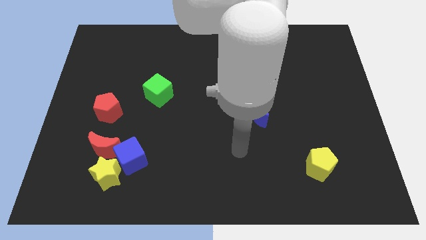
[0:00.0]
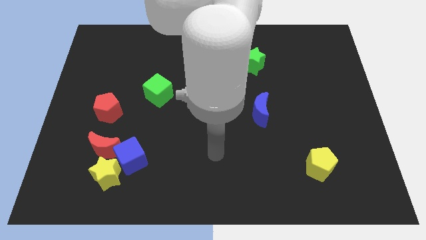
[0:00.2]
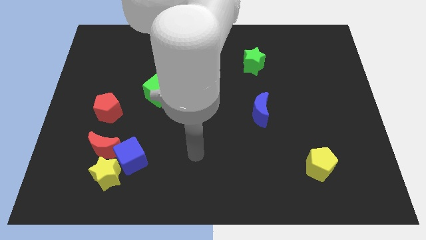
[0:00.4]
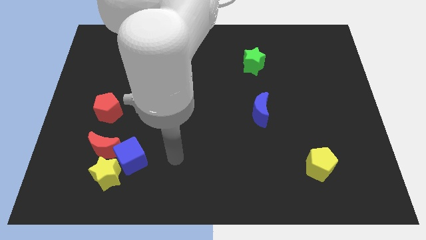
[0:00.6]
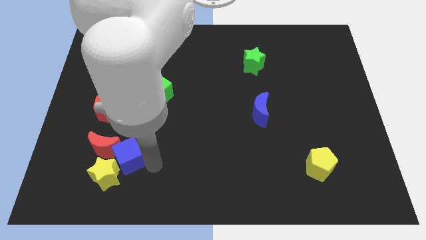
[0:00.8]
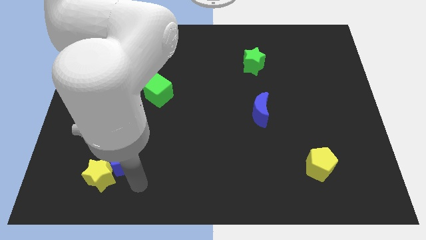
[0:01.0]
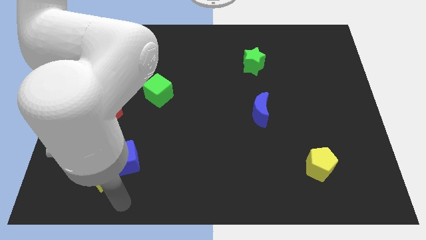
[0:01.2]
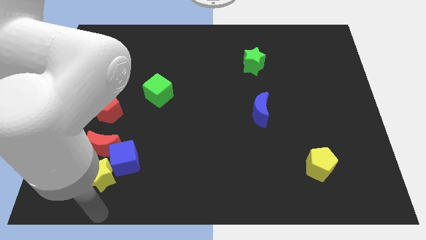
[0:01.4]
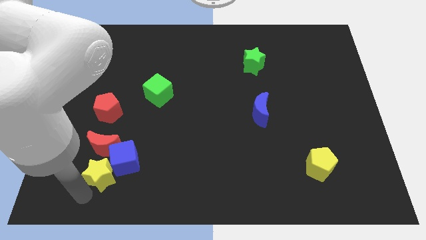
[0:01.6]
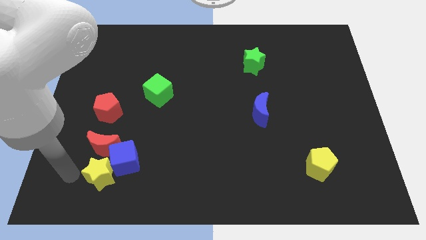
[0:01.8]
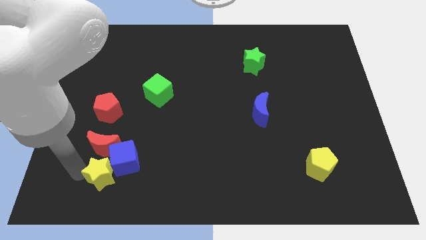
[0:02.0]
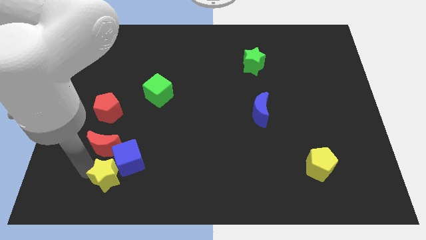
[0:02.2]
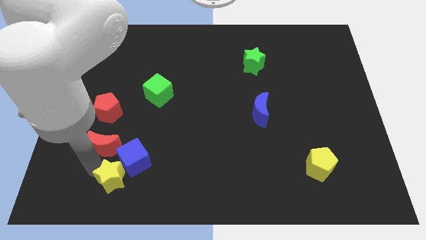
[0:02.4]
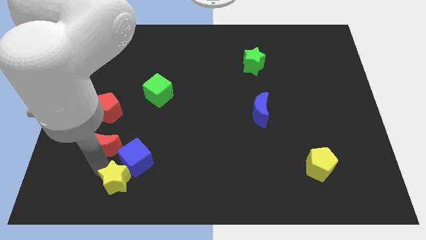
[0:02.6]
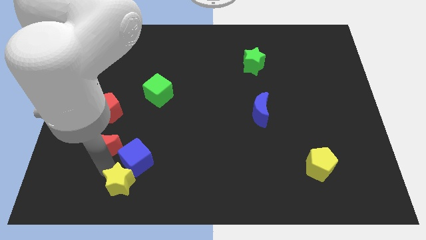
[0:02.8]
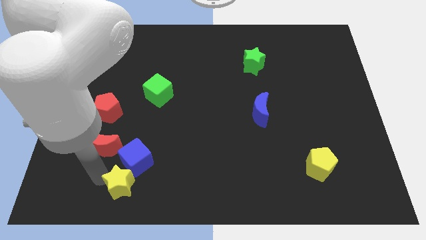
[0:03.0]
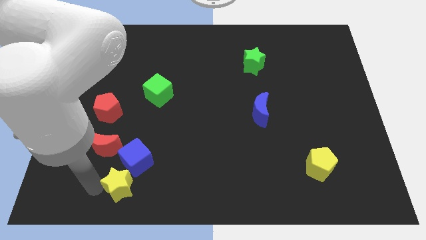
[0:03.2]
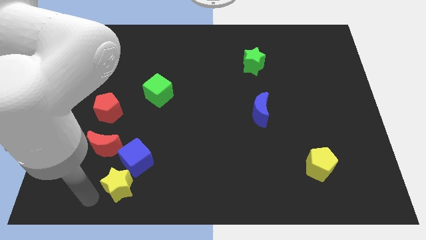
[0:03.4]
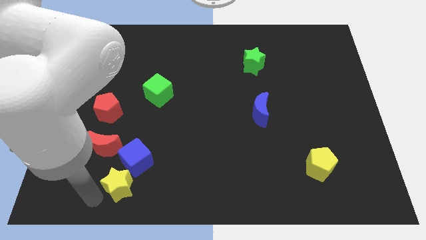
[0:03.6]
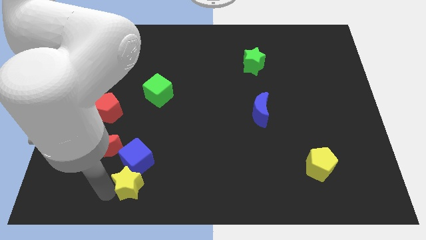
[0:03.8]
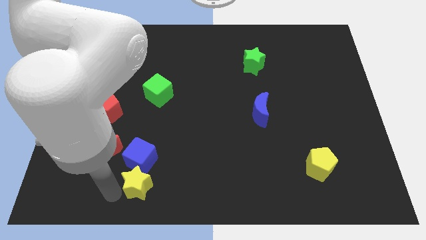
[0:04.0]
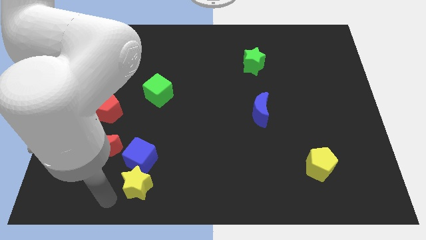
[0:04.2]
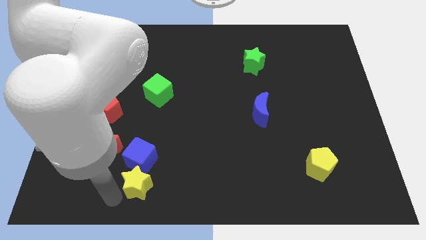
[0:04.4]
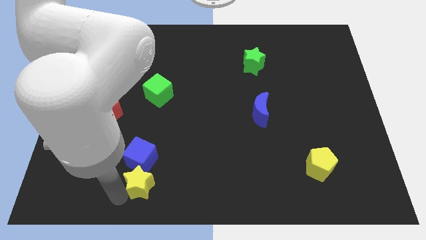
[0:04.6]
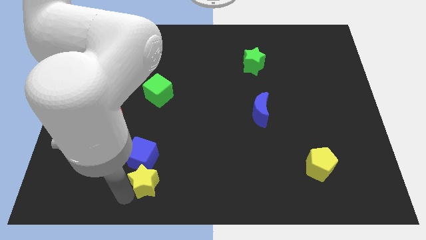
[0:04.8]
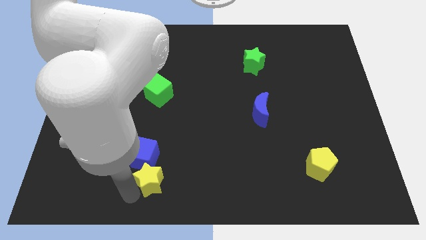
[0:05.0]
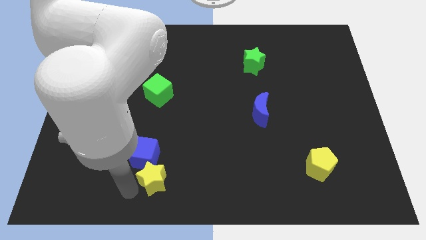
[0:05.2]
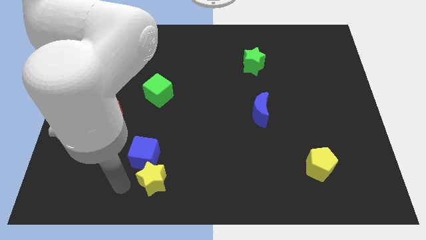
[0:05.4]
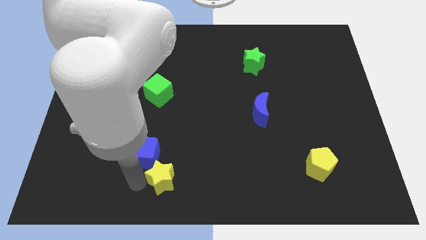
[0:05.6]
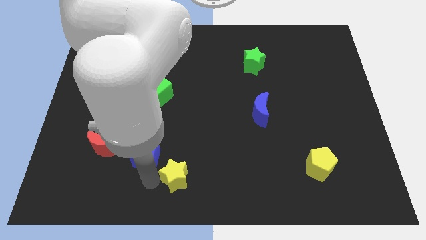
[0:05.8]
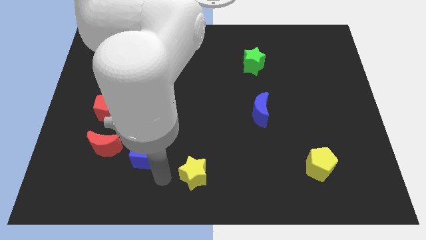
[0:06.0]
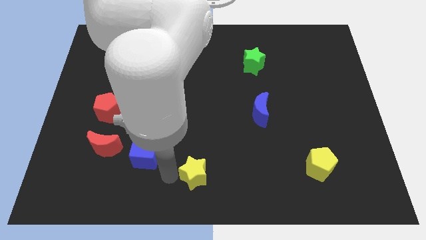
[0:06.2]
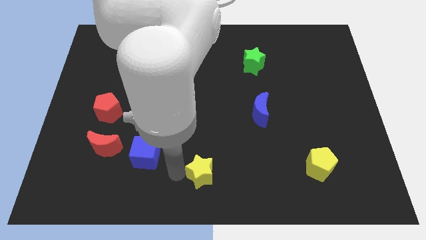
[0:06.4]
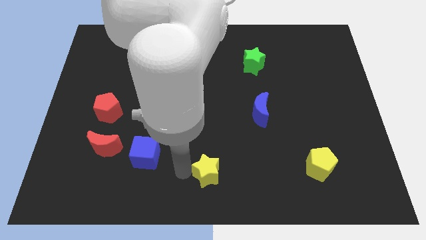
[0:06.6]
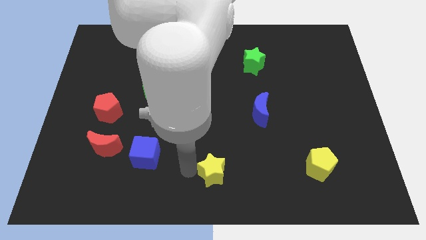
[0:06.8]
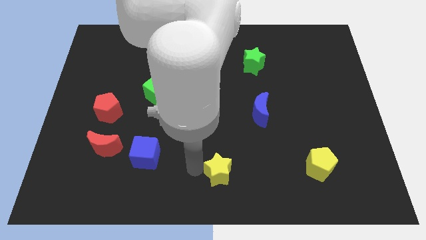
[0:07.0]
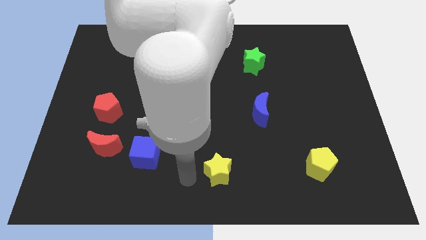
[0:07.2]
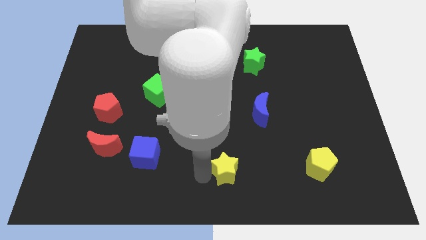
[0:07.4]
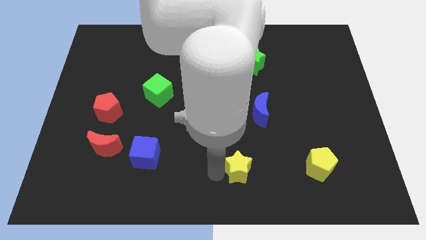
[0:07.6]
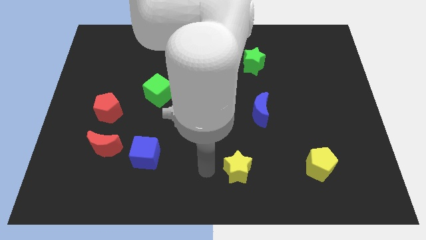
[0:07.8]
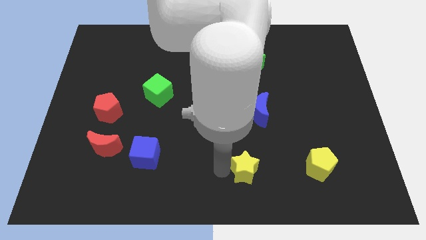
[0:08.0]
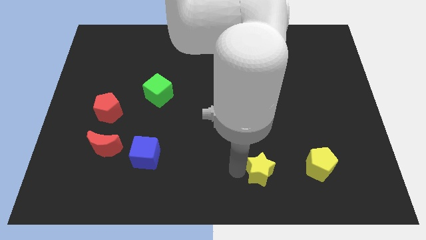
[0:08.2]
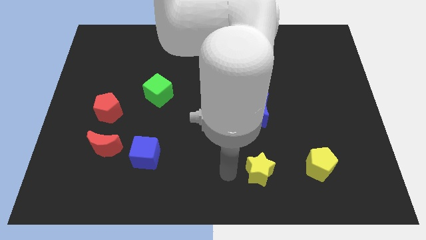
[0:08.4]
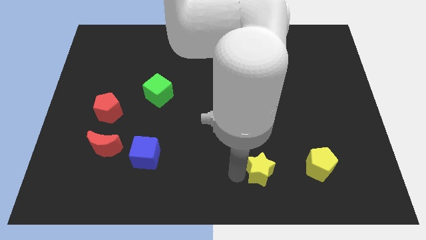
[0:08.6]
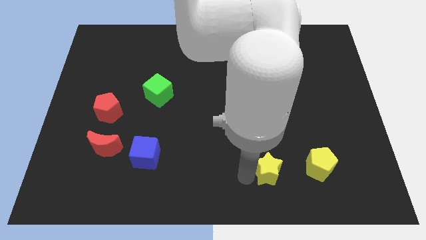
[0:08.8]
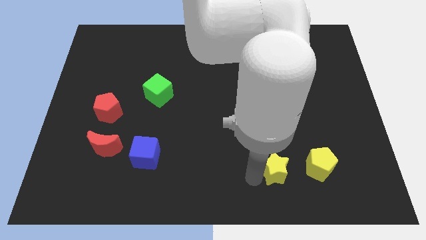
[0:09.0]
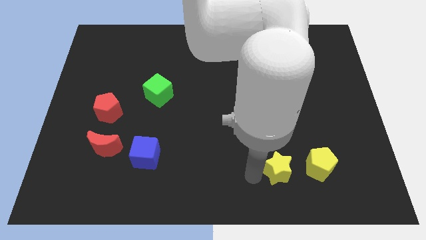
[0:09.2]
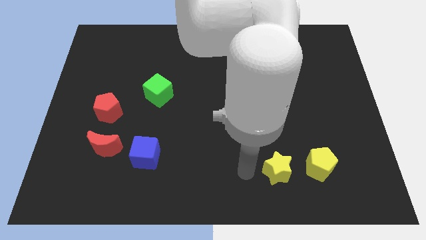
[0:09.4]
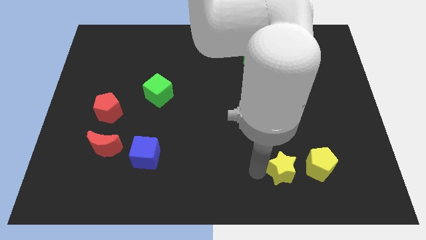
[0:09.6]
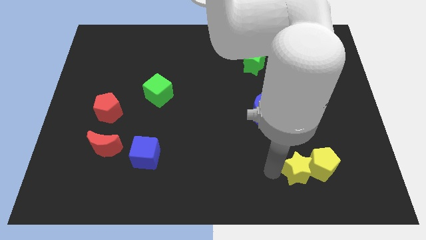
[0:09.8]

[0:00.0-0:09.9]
move the yellow star next to the yellow pentagon

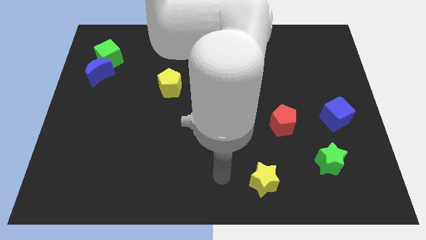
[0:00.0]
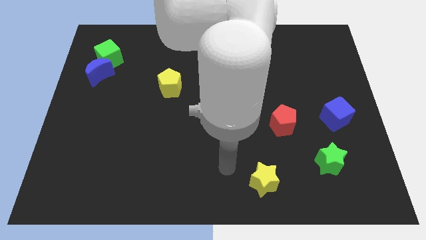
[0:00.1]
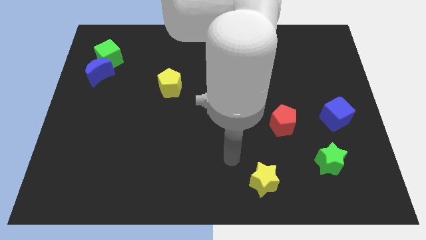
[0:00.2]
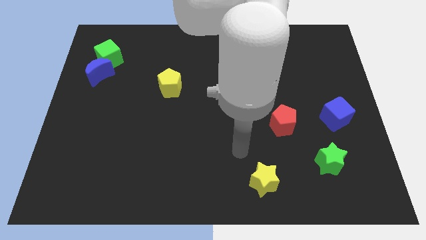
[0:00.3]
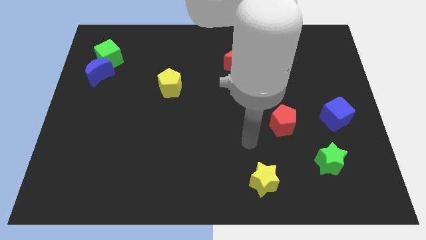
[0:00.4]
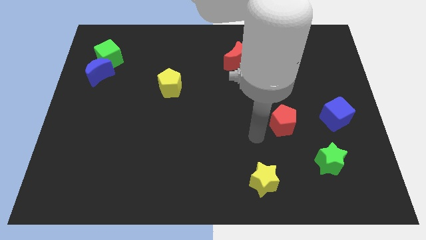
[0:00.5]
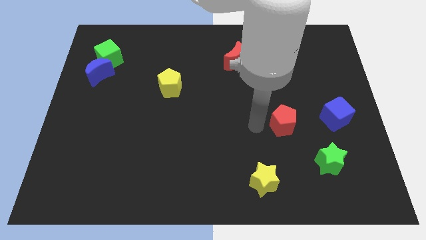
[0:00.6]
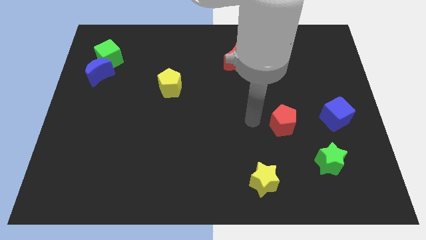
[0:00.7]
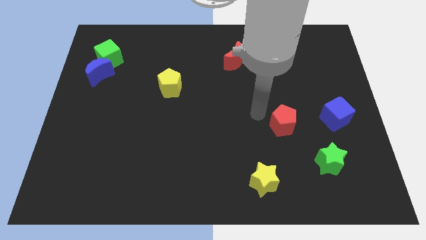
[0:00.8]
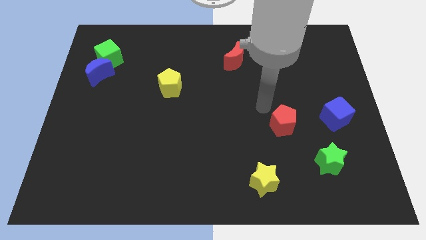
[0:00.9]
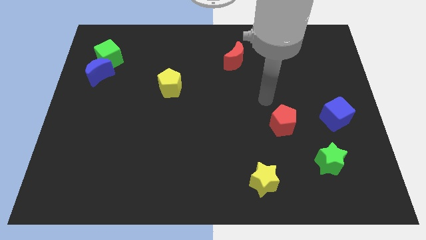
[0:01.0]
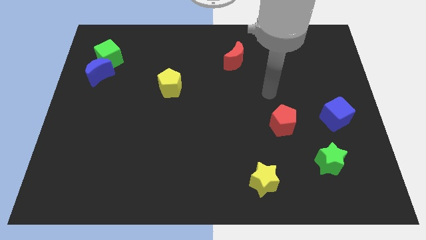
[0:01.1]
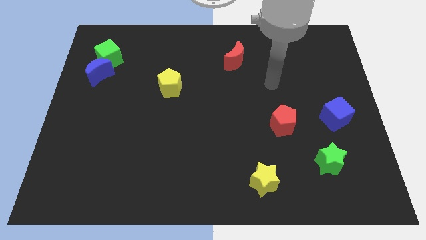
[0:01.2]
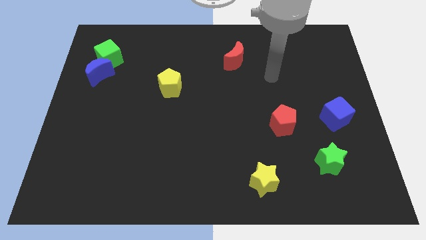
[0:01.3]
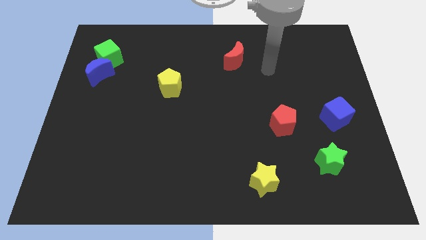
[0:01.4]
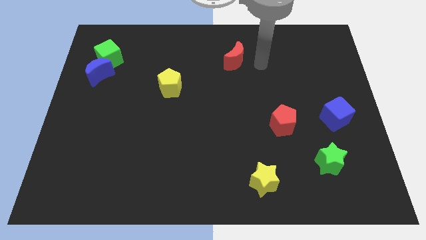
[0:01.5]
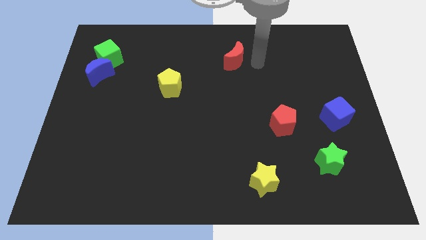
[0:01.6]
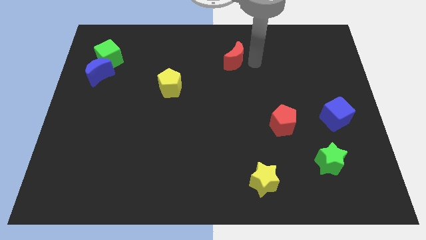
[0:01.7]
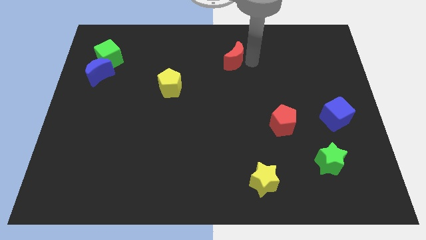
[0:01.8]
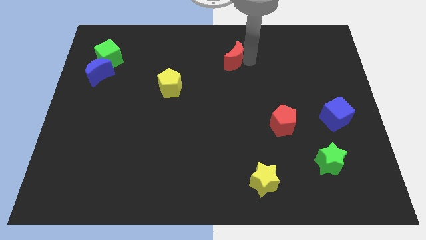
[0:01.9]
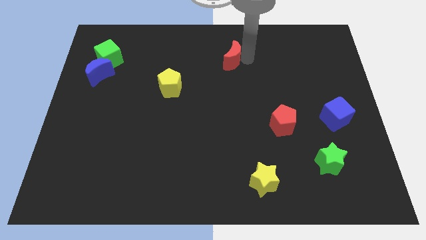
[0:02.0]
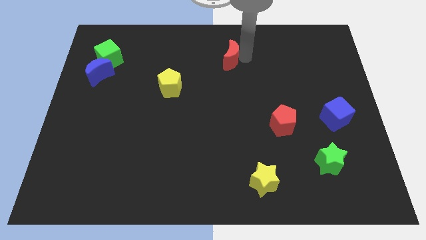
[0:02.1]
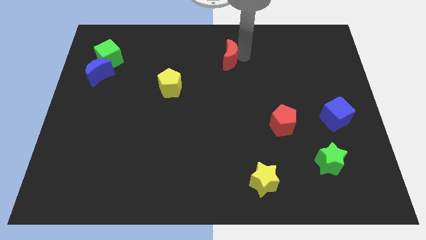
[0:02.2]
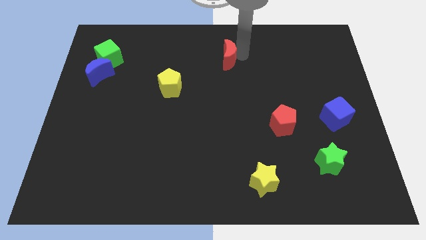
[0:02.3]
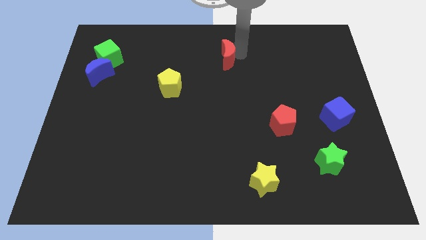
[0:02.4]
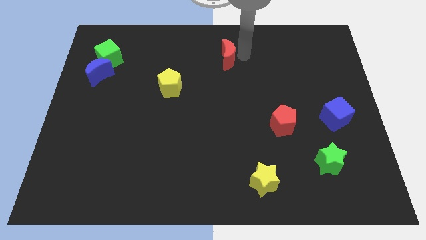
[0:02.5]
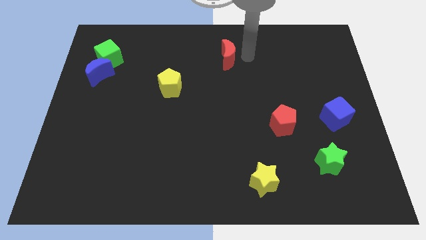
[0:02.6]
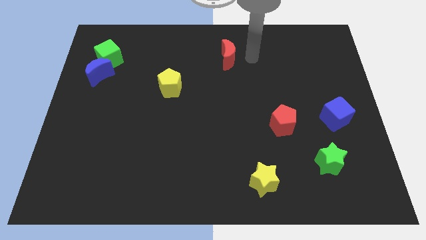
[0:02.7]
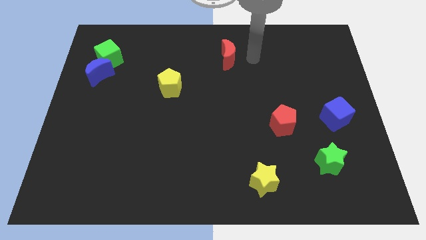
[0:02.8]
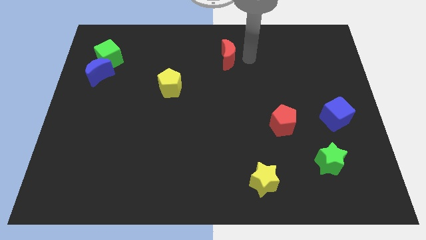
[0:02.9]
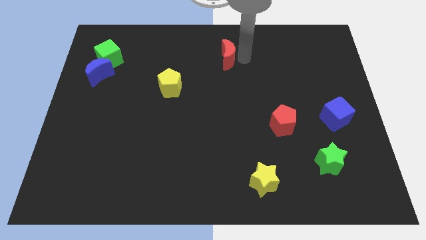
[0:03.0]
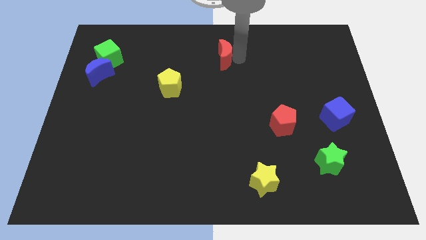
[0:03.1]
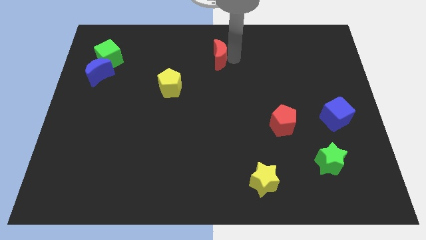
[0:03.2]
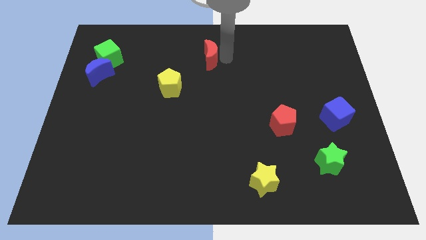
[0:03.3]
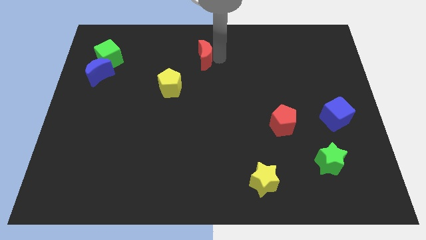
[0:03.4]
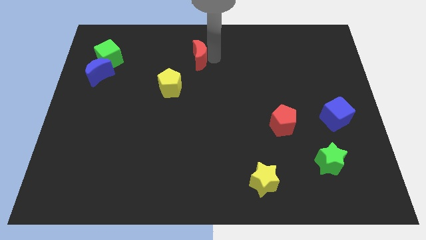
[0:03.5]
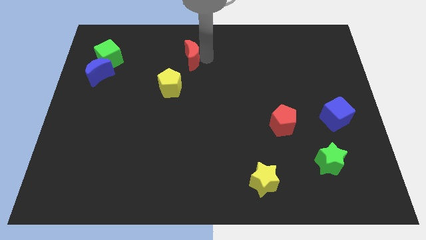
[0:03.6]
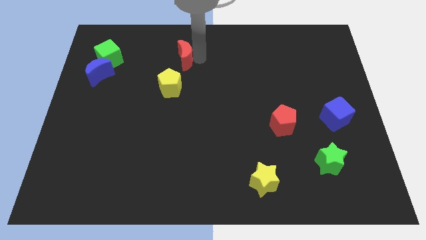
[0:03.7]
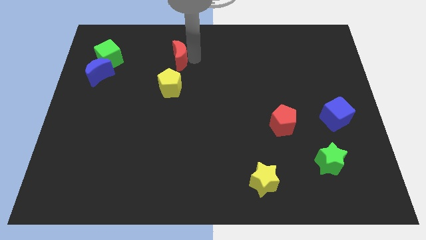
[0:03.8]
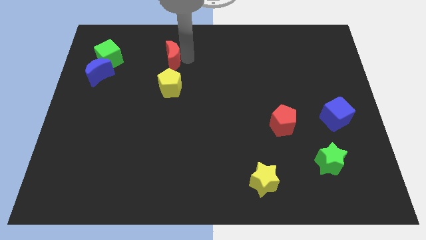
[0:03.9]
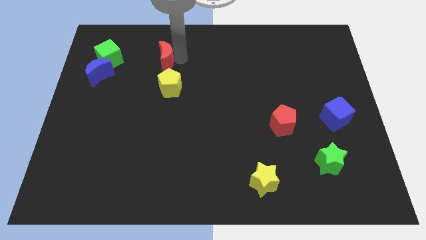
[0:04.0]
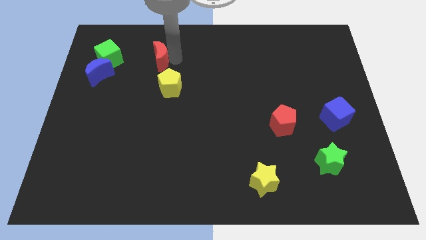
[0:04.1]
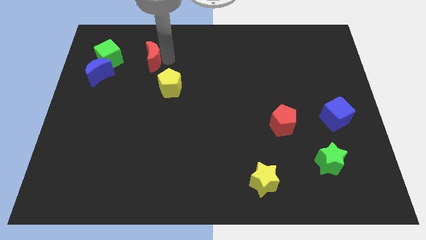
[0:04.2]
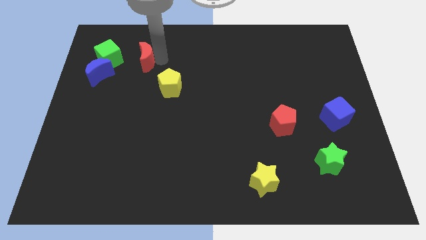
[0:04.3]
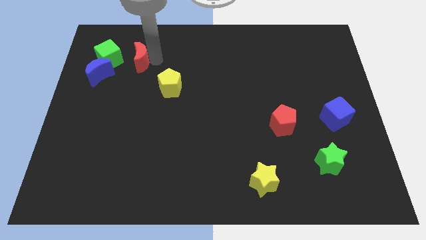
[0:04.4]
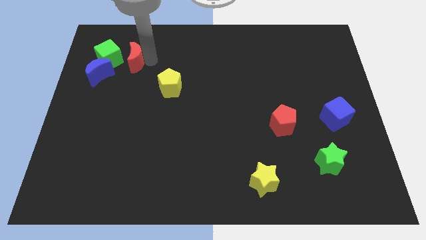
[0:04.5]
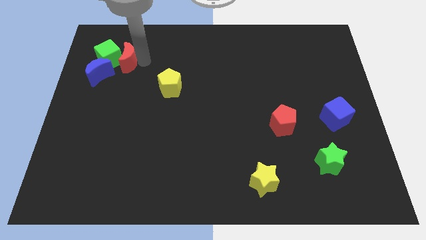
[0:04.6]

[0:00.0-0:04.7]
move the red moon close to the green cube
